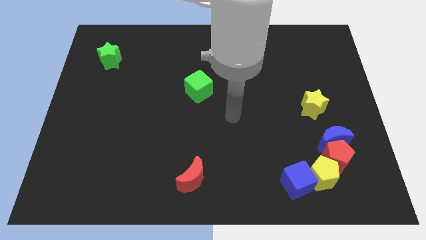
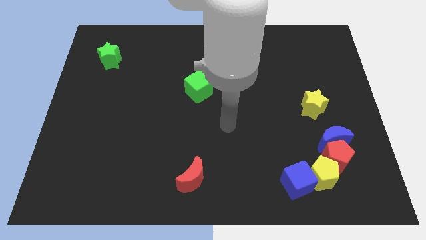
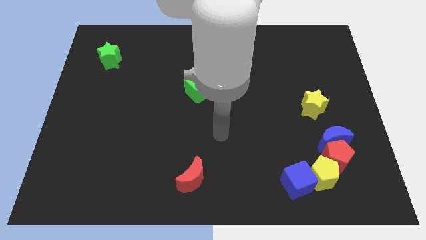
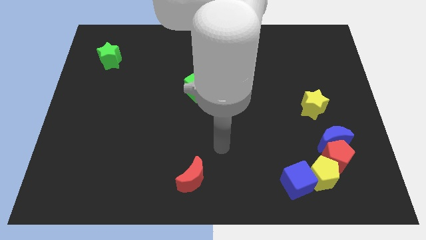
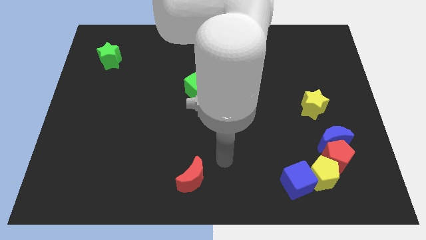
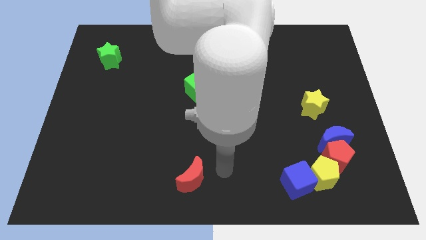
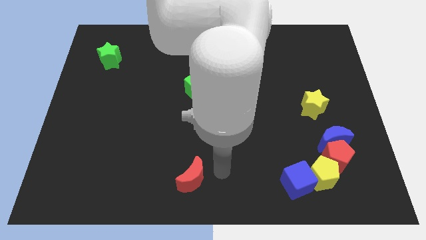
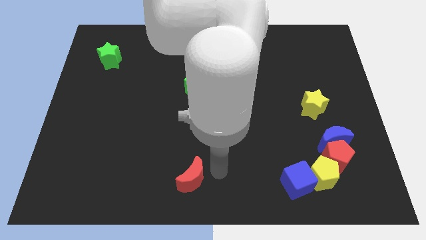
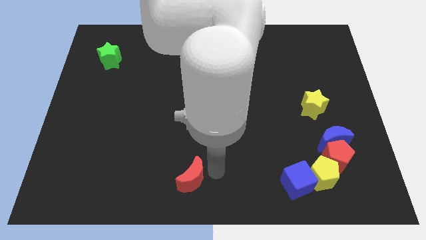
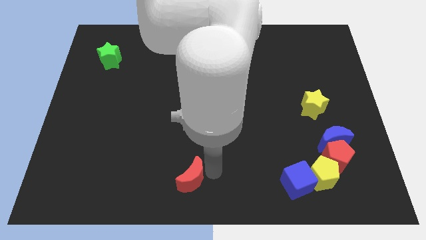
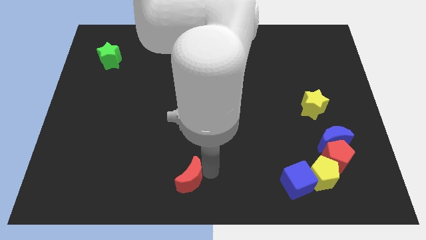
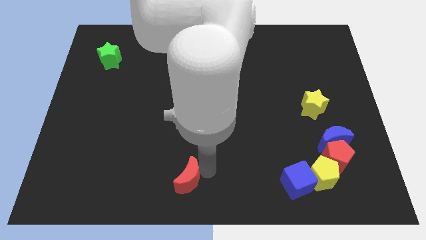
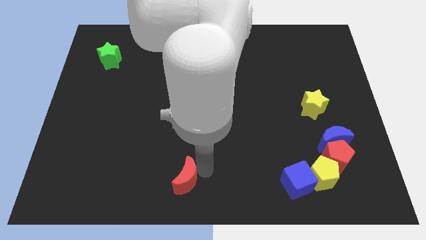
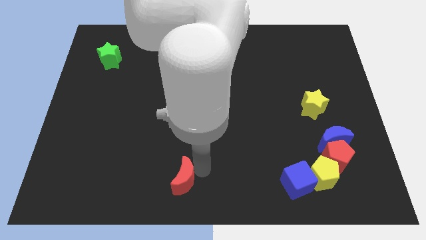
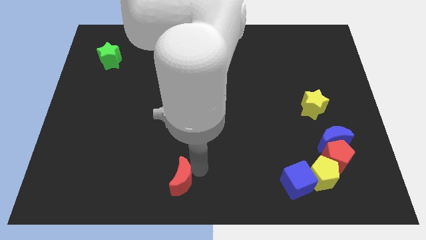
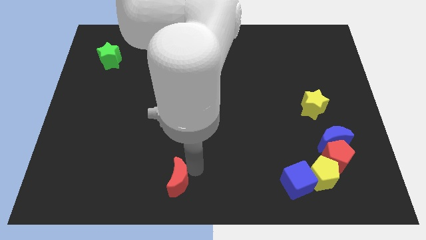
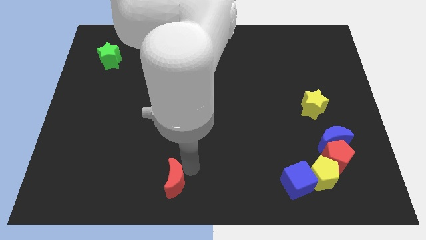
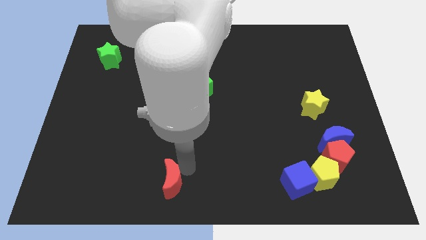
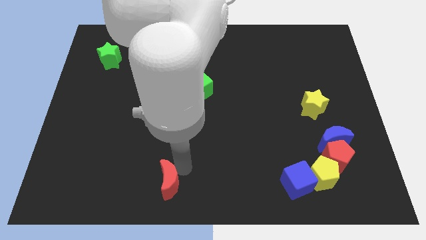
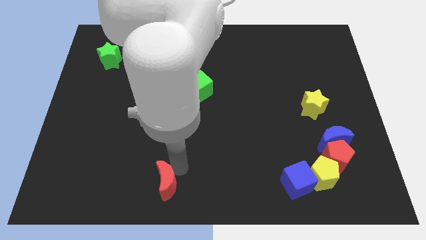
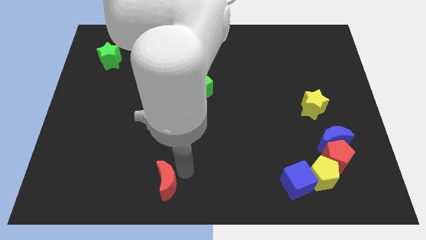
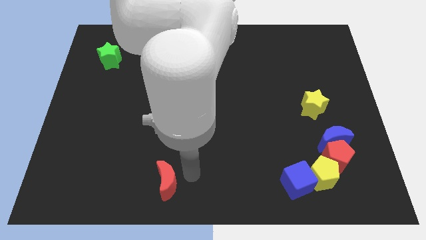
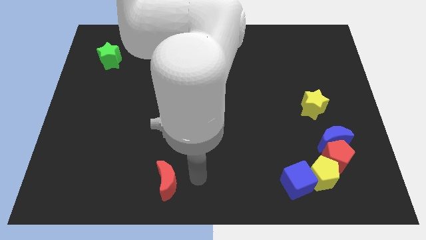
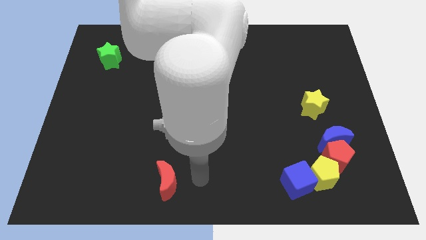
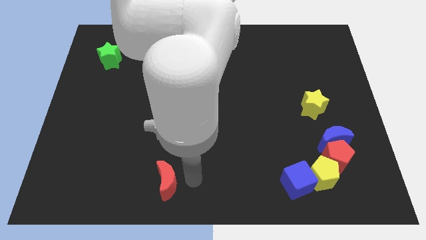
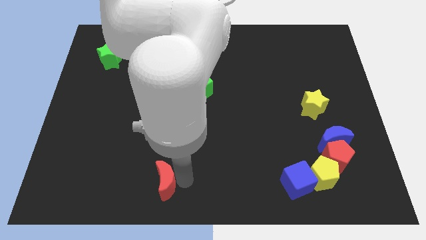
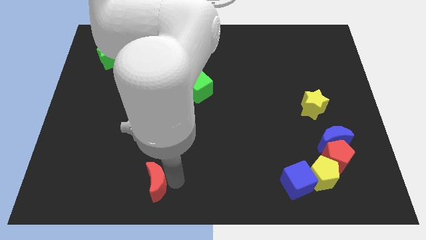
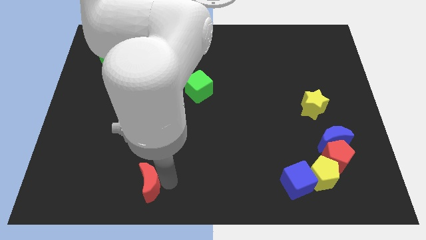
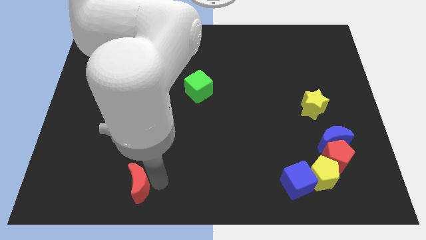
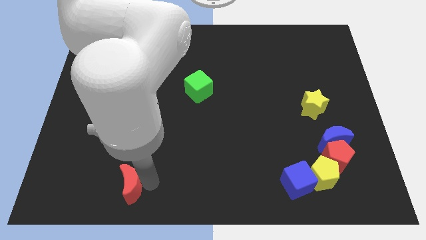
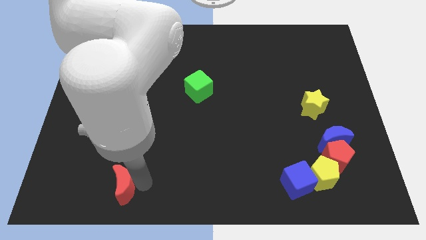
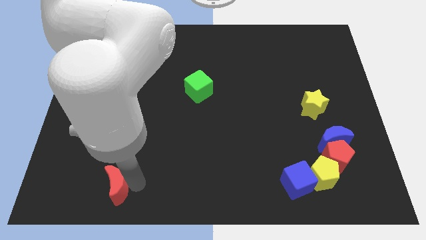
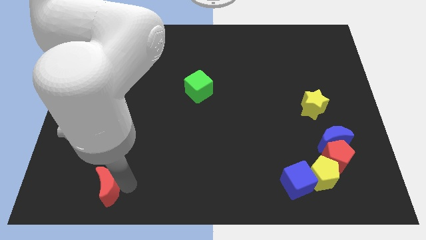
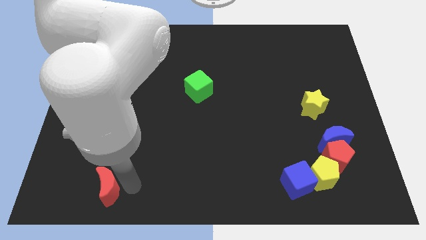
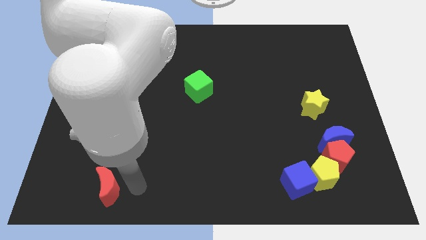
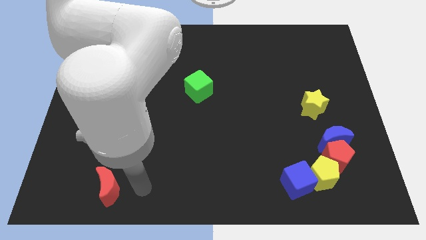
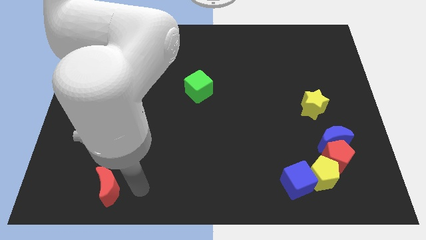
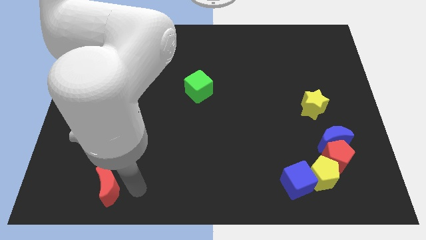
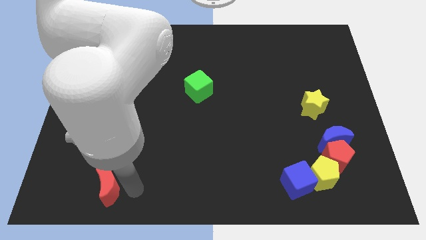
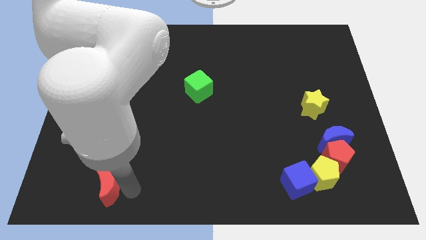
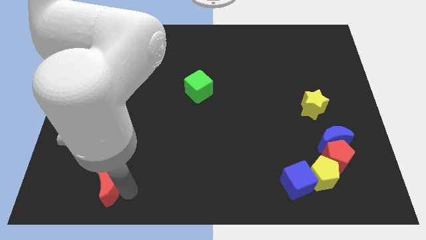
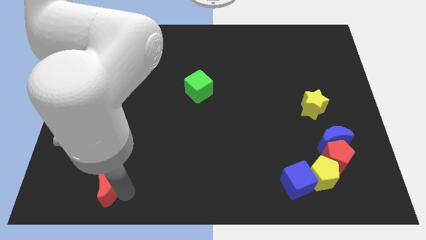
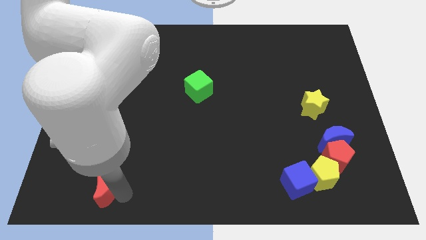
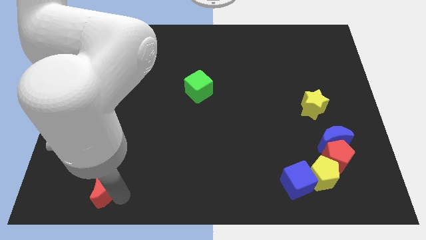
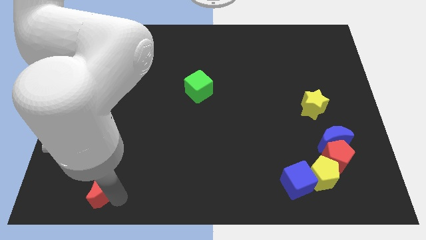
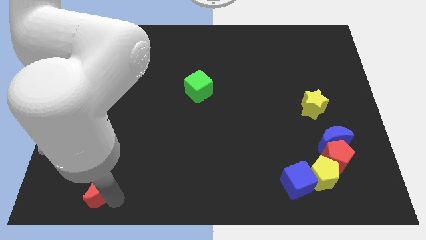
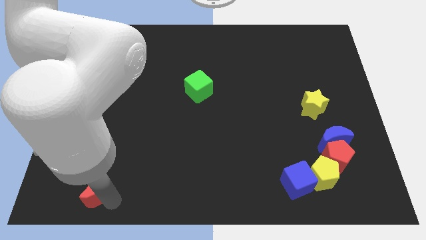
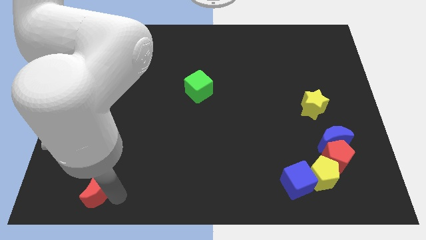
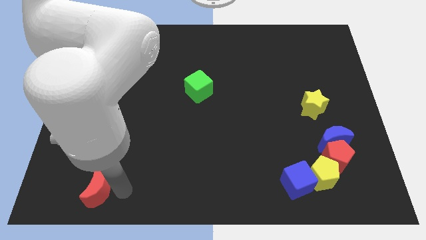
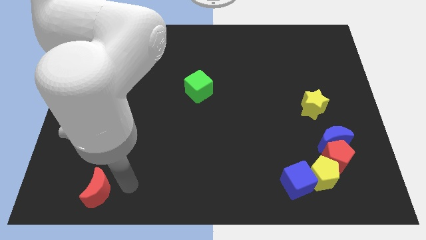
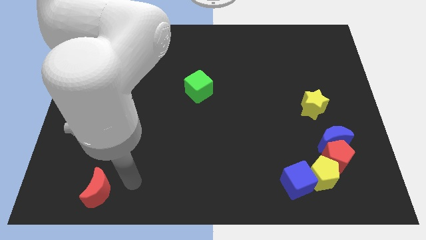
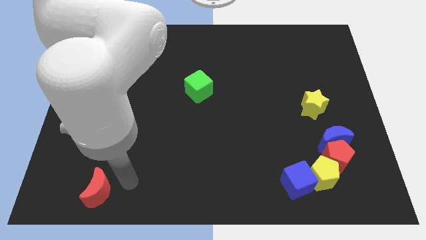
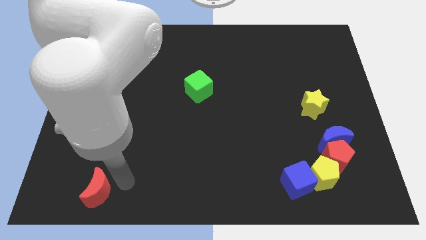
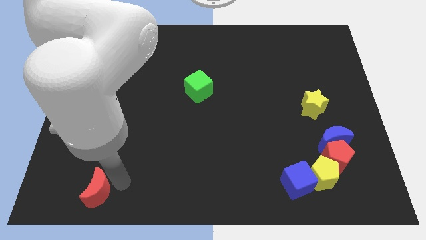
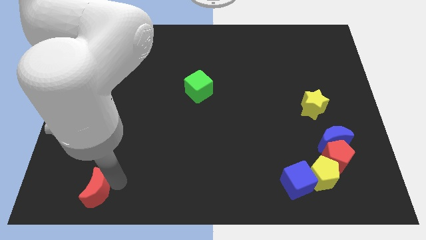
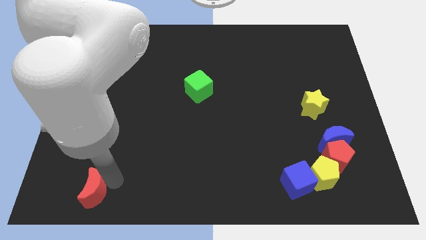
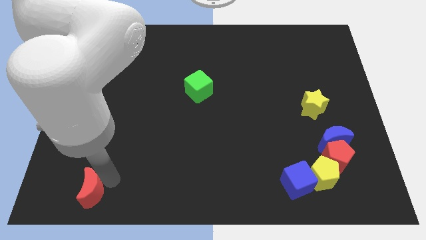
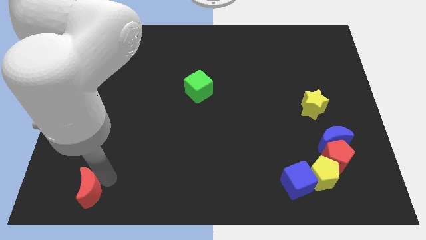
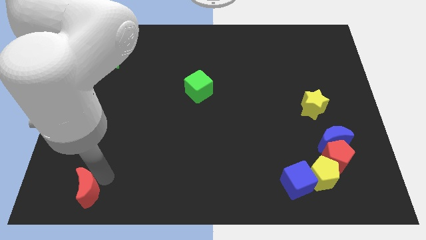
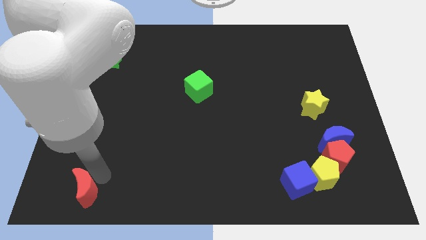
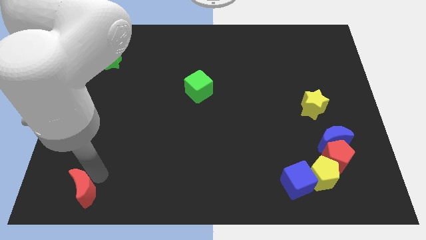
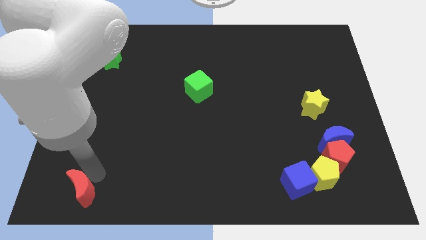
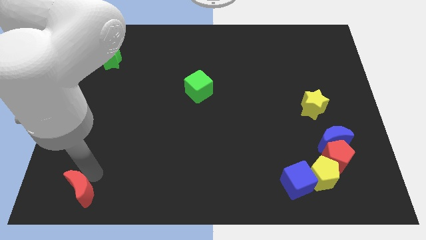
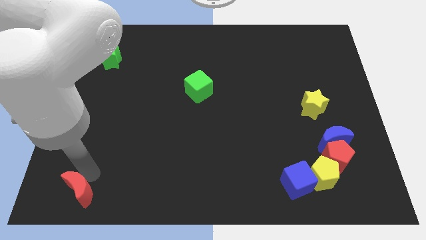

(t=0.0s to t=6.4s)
push the red moon to the bottom left of the board
